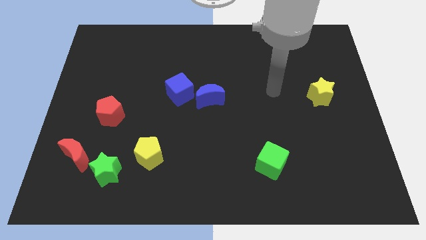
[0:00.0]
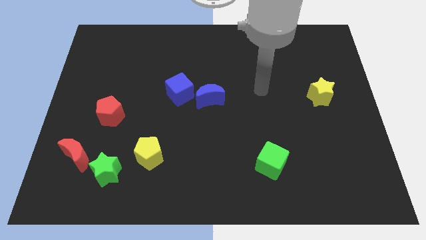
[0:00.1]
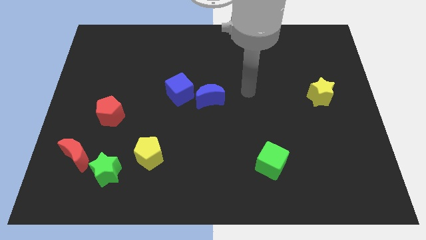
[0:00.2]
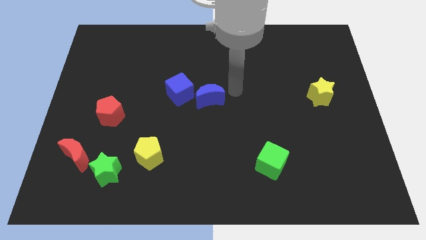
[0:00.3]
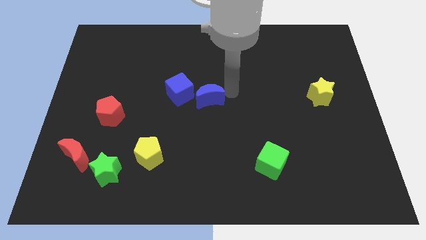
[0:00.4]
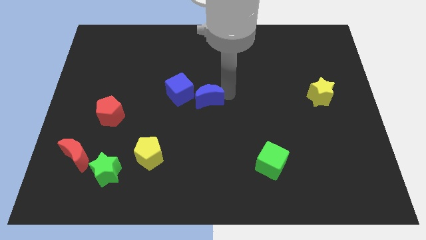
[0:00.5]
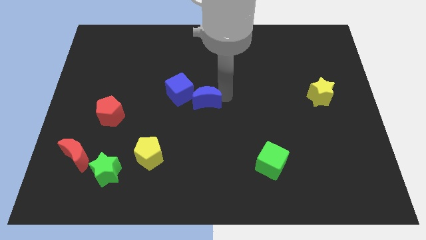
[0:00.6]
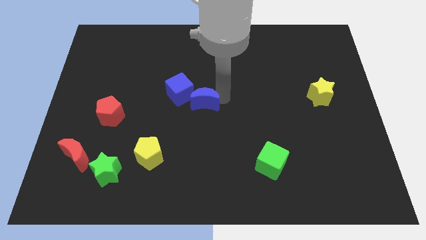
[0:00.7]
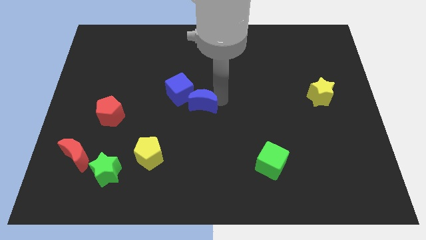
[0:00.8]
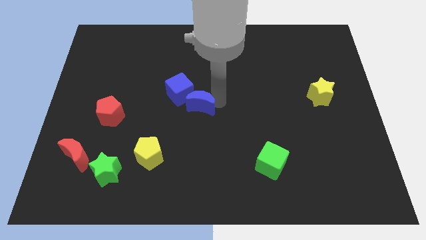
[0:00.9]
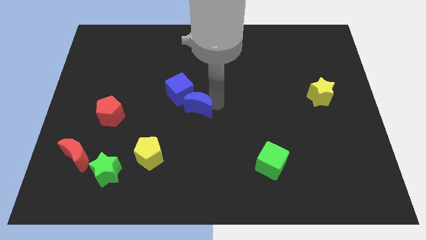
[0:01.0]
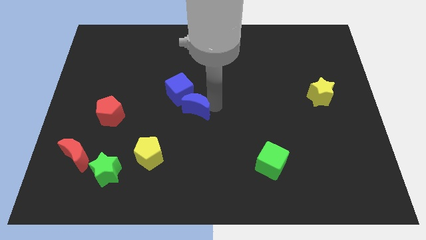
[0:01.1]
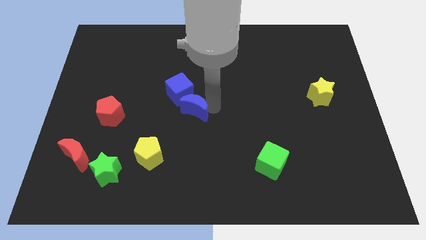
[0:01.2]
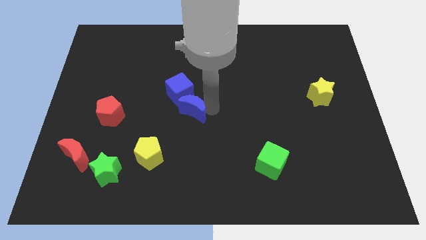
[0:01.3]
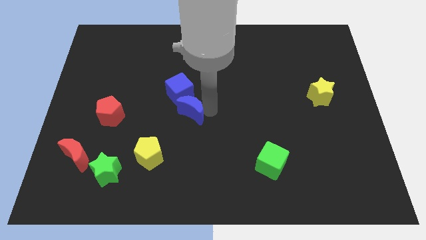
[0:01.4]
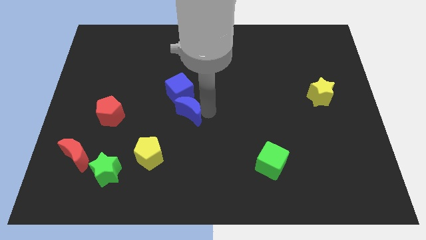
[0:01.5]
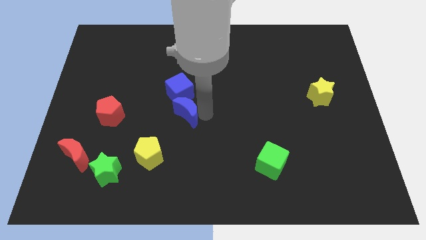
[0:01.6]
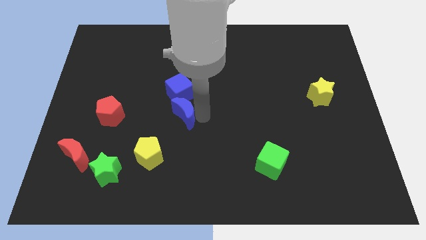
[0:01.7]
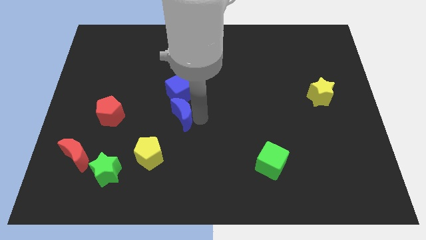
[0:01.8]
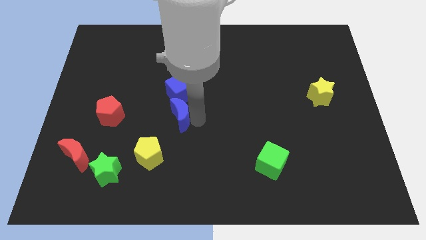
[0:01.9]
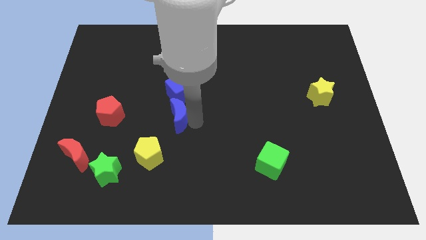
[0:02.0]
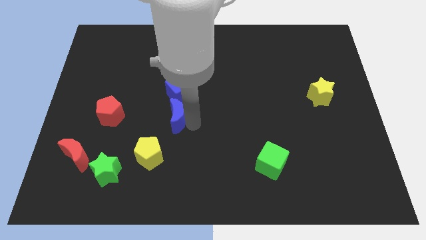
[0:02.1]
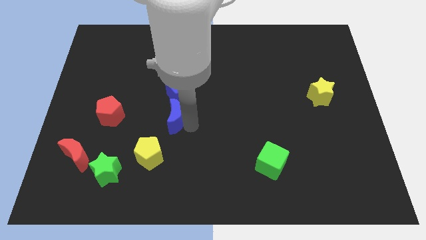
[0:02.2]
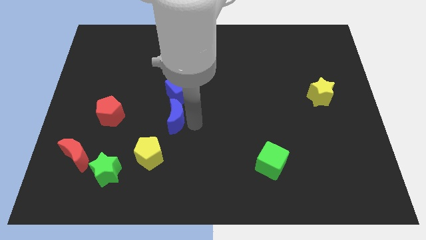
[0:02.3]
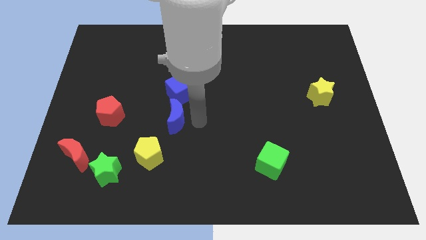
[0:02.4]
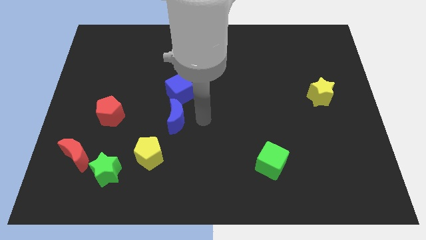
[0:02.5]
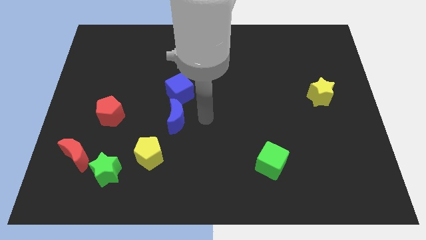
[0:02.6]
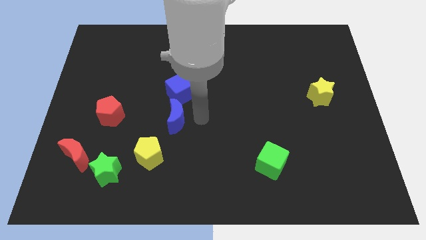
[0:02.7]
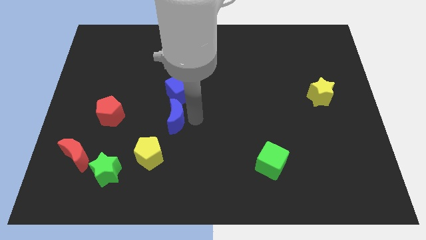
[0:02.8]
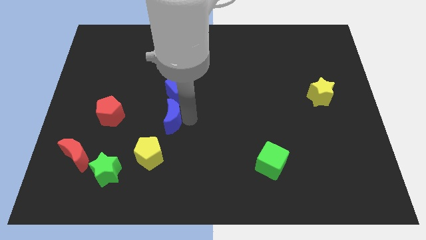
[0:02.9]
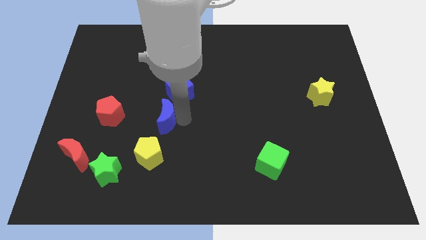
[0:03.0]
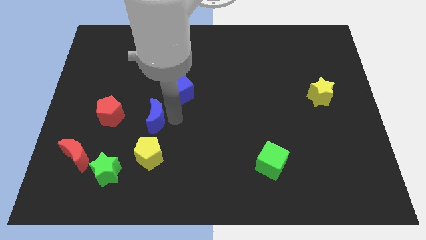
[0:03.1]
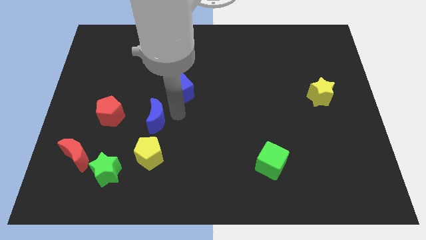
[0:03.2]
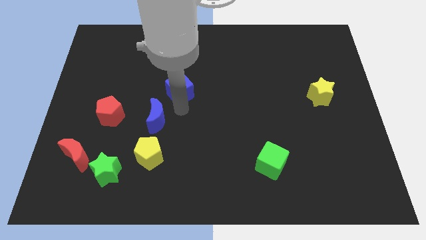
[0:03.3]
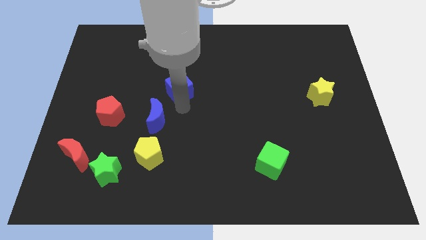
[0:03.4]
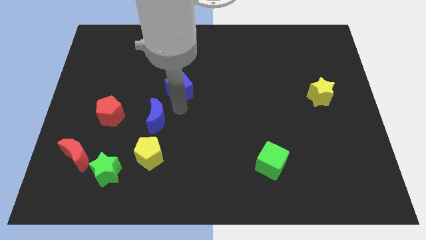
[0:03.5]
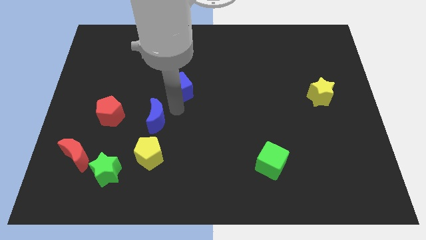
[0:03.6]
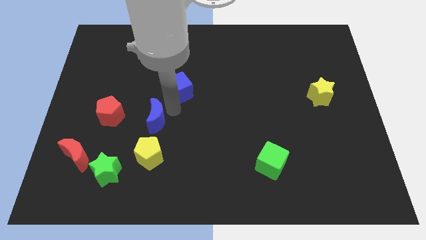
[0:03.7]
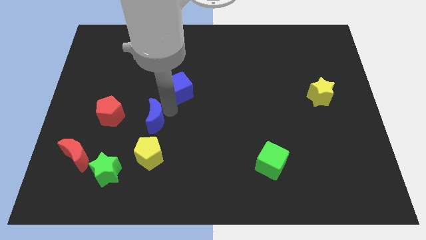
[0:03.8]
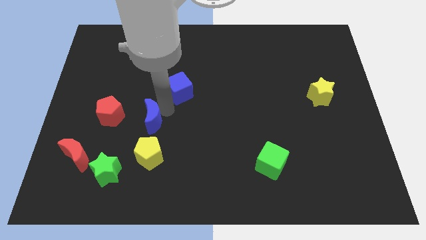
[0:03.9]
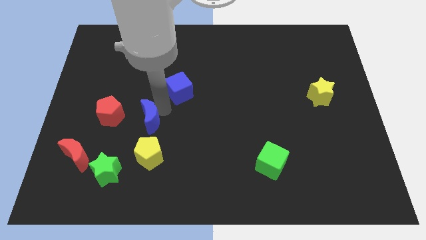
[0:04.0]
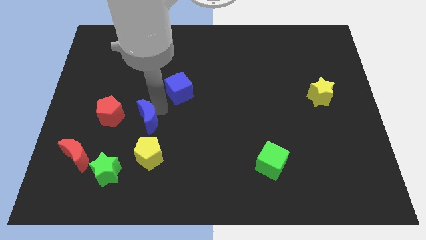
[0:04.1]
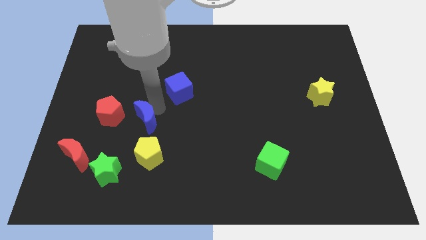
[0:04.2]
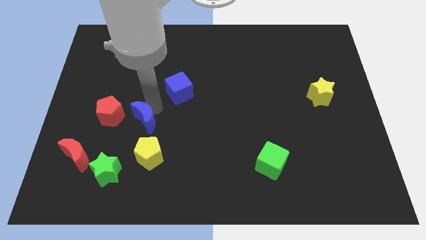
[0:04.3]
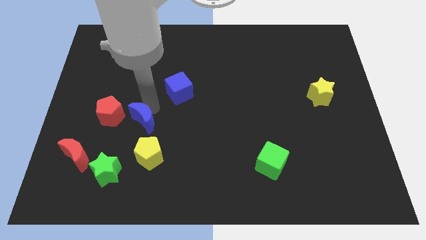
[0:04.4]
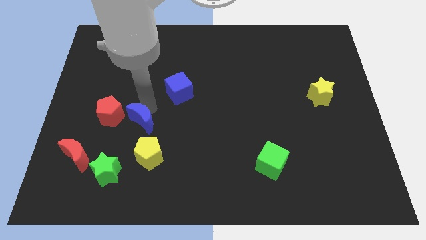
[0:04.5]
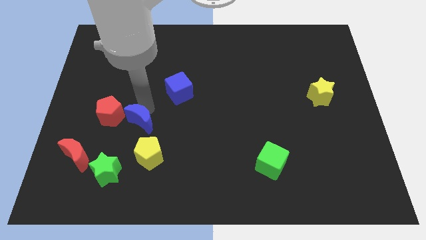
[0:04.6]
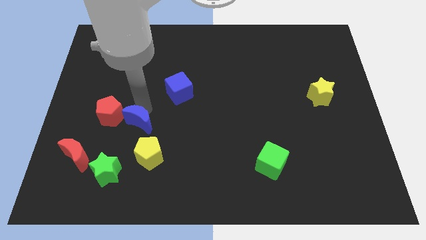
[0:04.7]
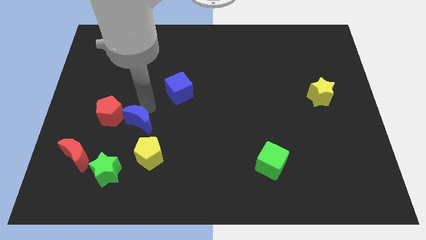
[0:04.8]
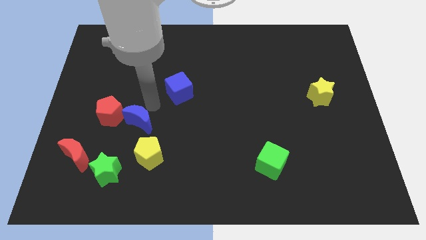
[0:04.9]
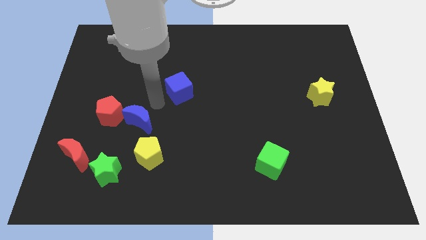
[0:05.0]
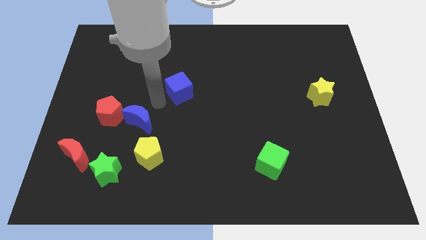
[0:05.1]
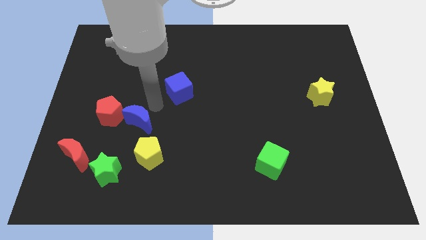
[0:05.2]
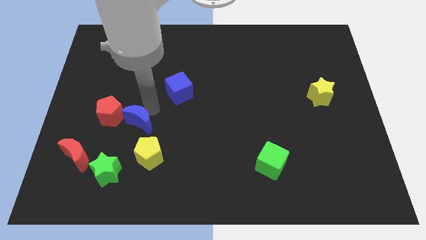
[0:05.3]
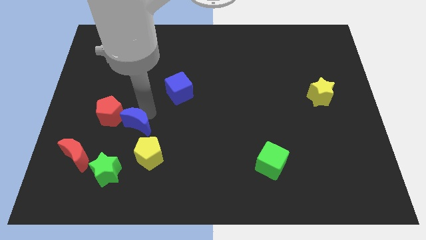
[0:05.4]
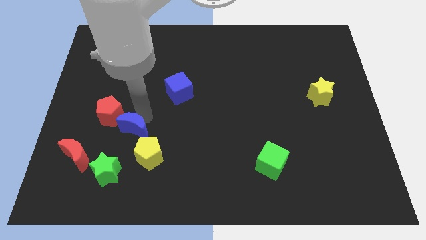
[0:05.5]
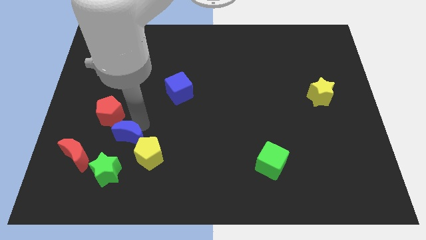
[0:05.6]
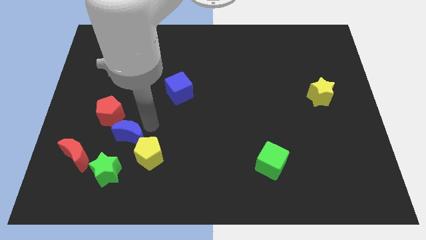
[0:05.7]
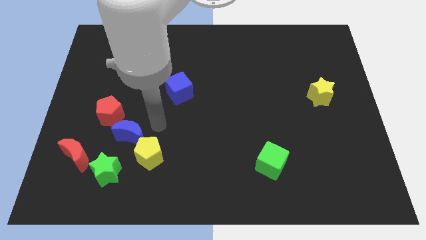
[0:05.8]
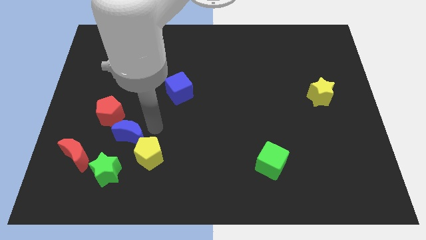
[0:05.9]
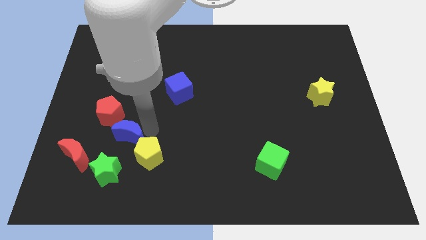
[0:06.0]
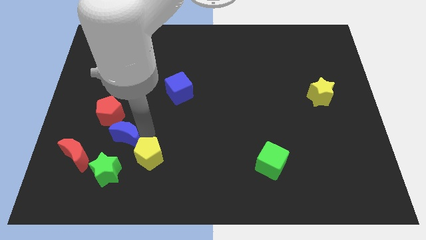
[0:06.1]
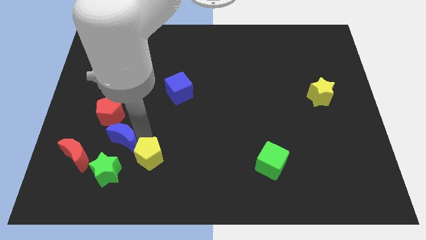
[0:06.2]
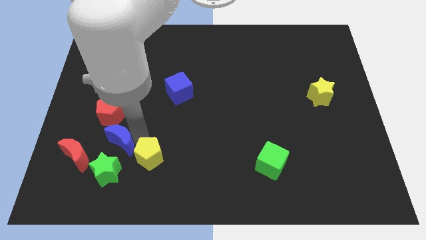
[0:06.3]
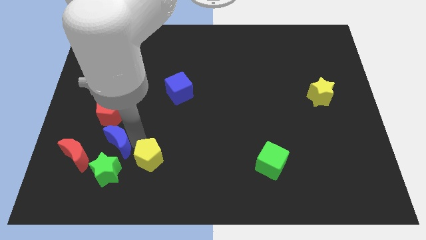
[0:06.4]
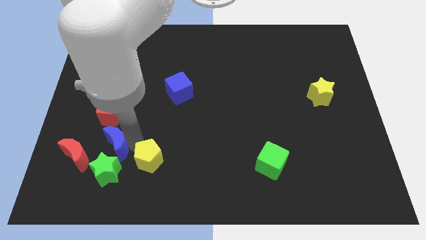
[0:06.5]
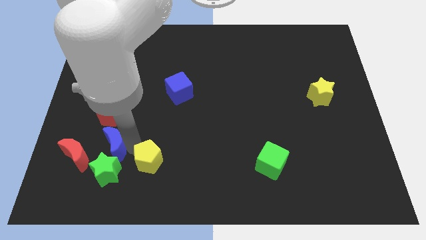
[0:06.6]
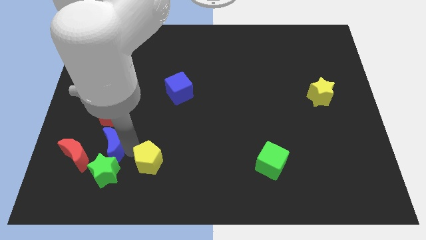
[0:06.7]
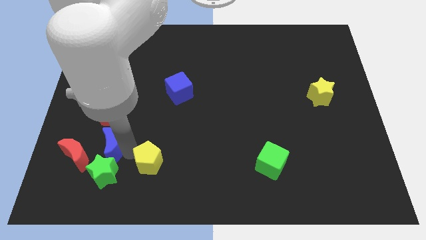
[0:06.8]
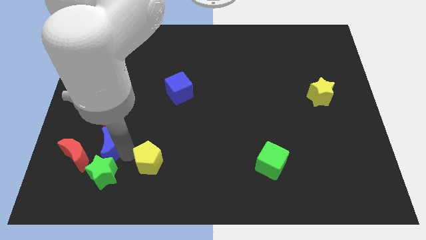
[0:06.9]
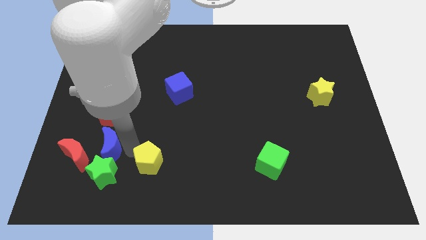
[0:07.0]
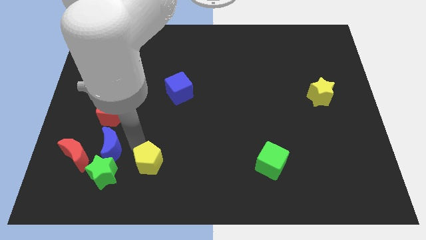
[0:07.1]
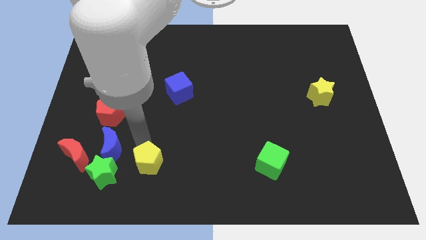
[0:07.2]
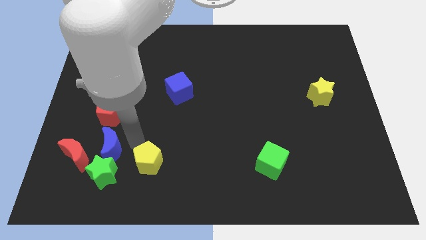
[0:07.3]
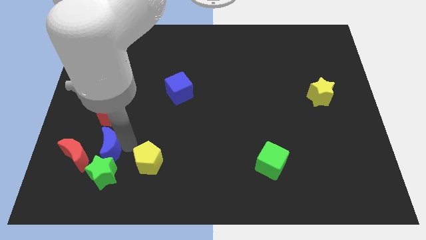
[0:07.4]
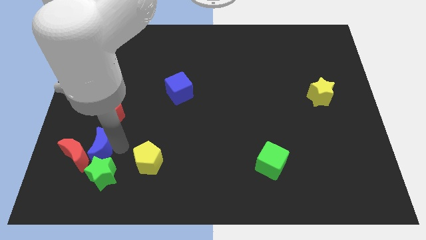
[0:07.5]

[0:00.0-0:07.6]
slide the blue moon to the red moon

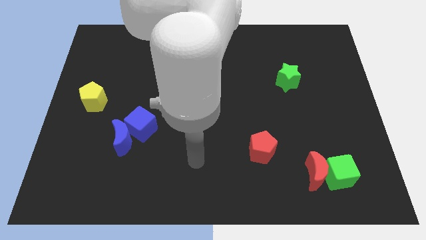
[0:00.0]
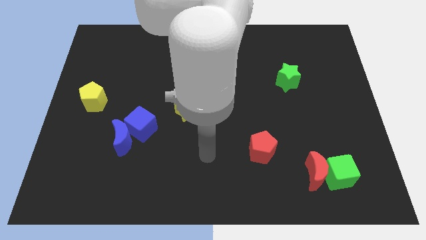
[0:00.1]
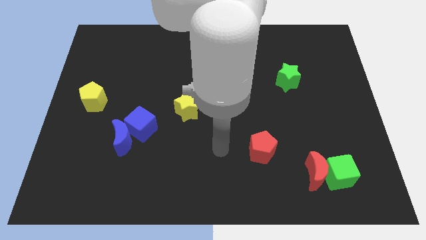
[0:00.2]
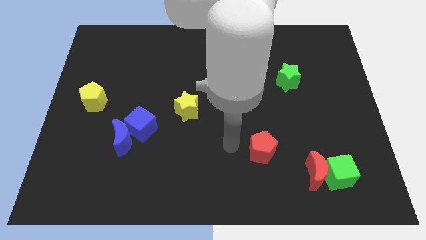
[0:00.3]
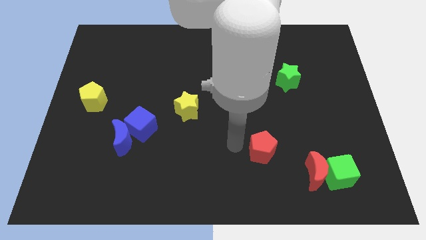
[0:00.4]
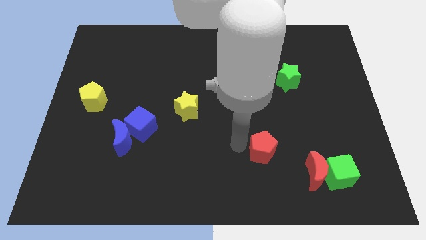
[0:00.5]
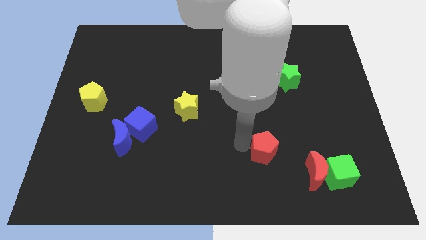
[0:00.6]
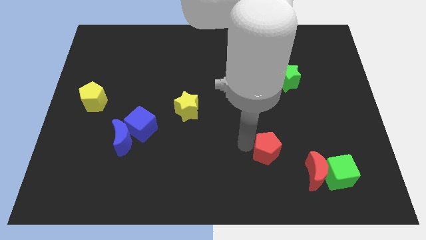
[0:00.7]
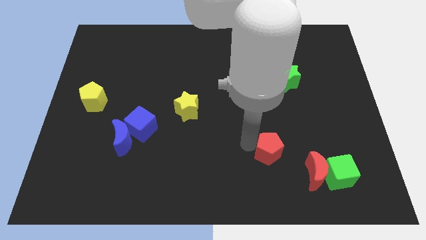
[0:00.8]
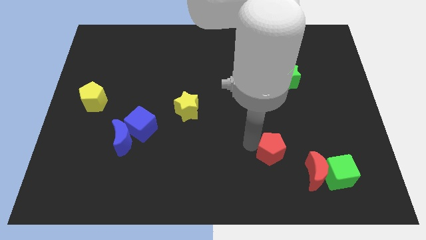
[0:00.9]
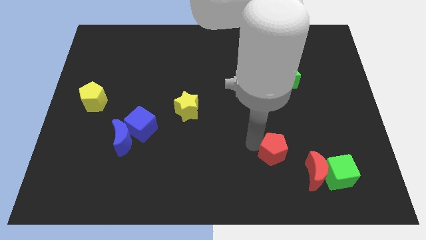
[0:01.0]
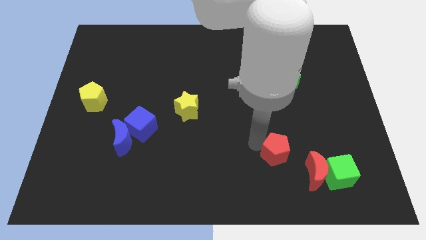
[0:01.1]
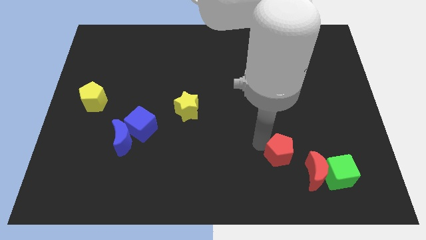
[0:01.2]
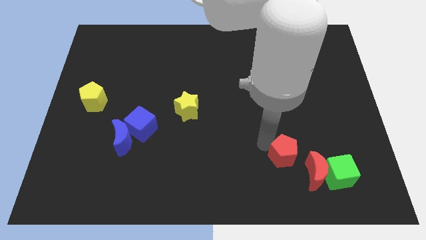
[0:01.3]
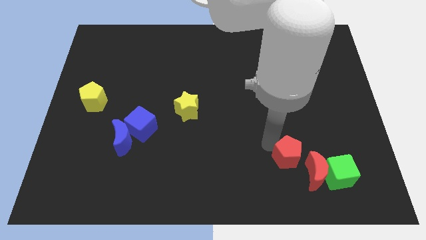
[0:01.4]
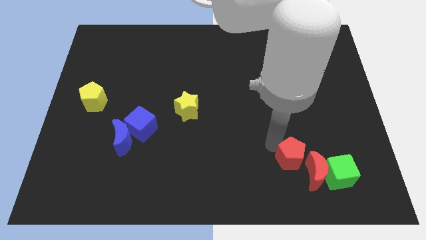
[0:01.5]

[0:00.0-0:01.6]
slide the red pentagon close to the red moon
